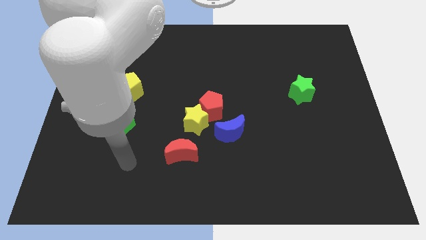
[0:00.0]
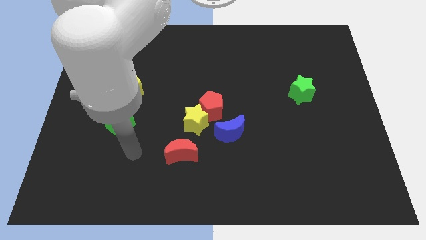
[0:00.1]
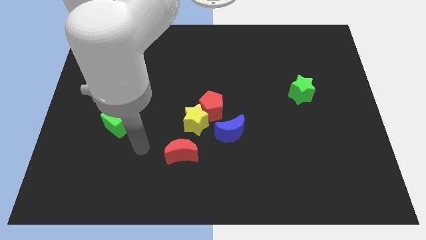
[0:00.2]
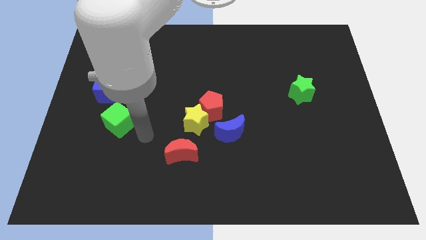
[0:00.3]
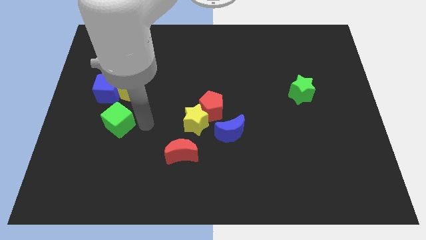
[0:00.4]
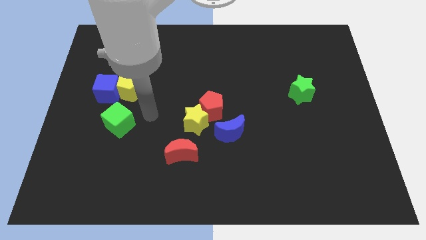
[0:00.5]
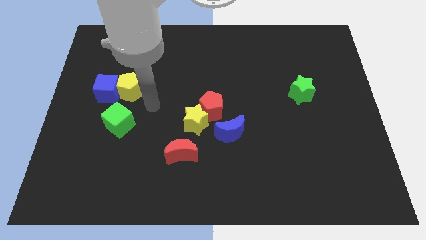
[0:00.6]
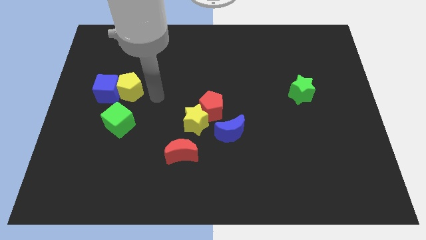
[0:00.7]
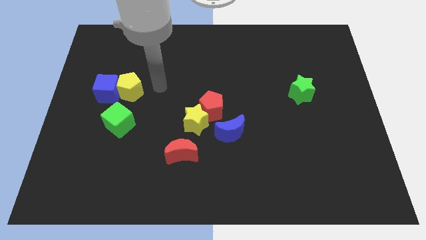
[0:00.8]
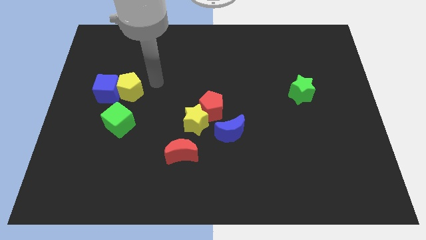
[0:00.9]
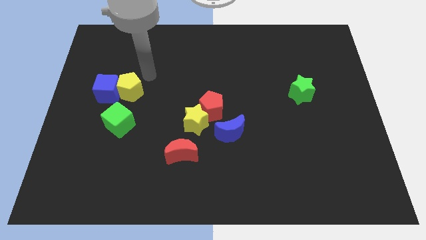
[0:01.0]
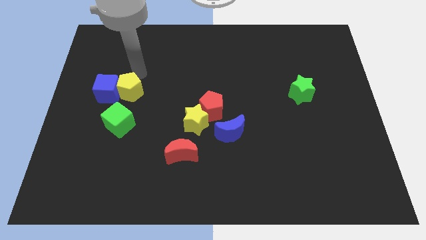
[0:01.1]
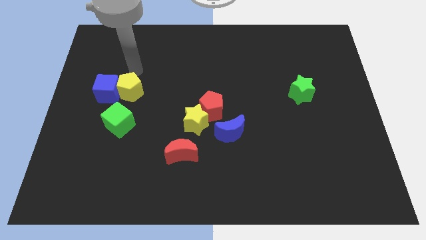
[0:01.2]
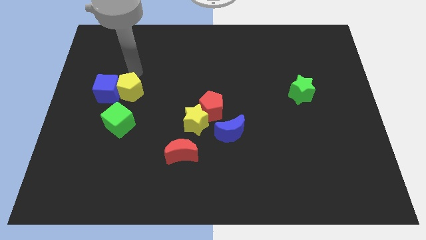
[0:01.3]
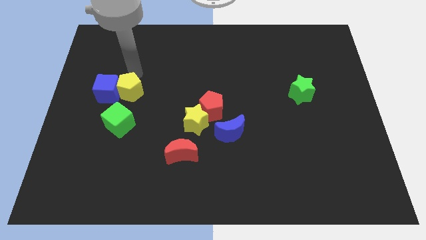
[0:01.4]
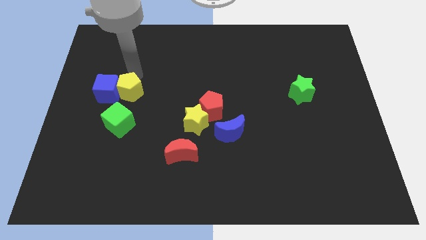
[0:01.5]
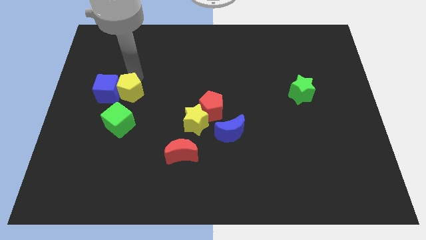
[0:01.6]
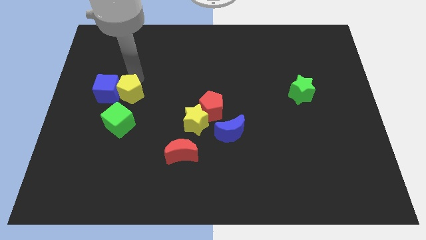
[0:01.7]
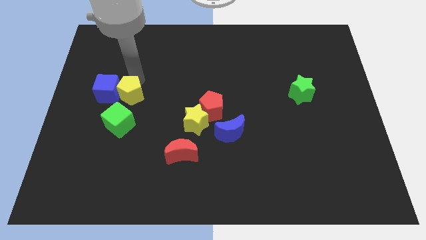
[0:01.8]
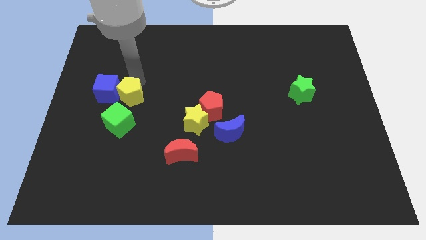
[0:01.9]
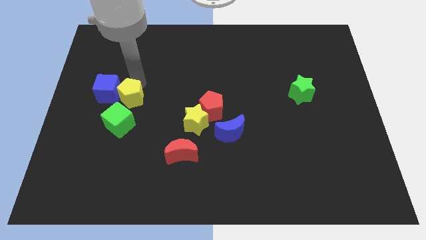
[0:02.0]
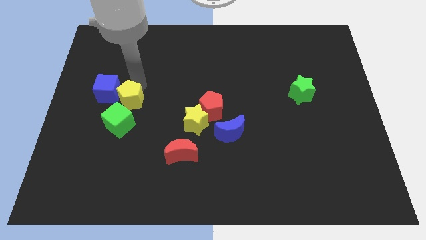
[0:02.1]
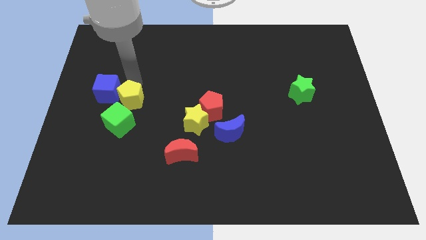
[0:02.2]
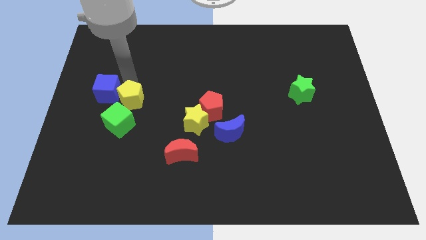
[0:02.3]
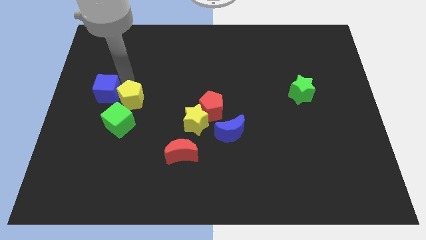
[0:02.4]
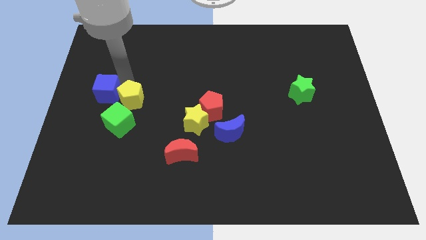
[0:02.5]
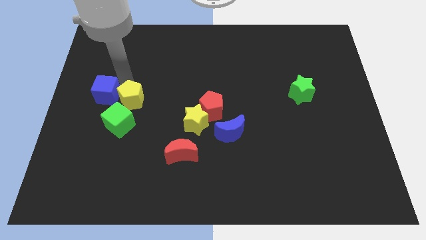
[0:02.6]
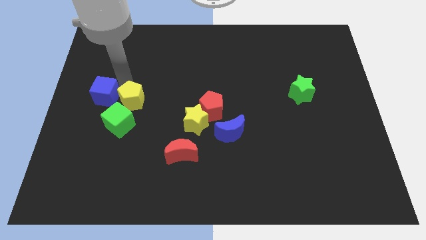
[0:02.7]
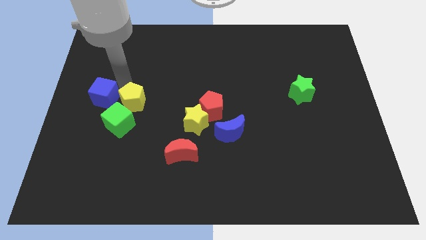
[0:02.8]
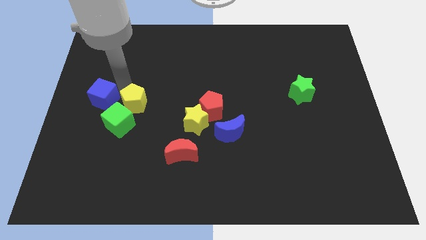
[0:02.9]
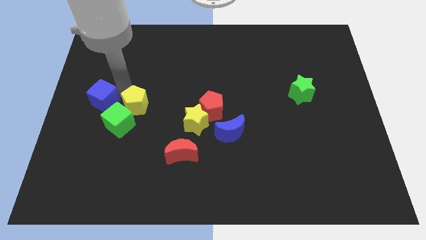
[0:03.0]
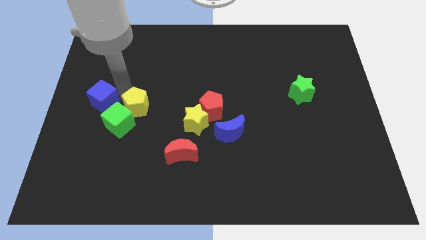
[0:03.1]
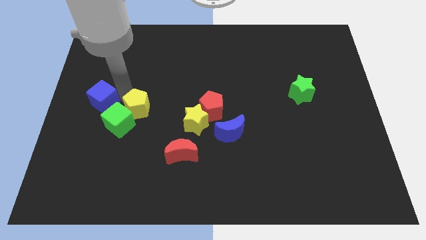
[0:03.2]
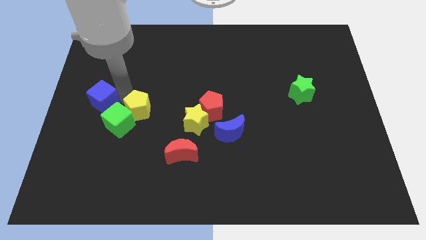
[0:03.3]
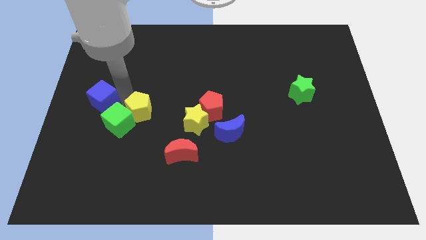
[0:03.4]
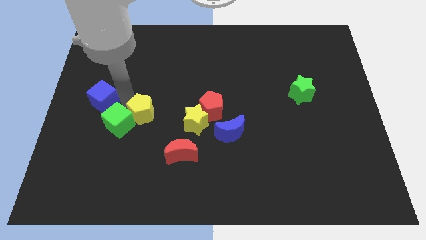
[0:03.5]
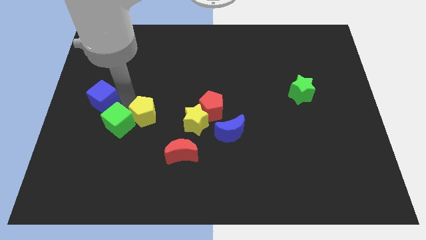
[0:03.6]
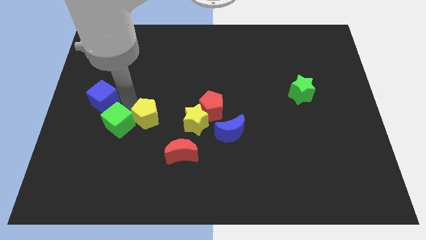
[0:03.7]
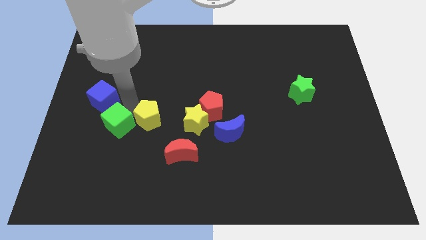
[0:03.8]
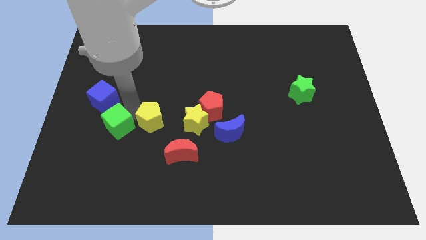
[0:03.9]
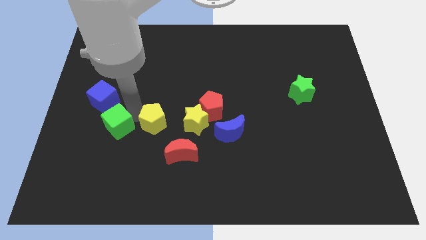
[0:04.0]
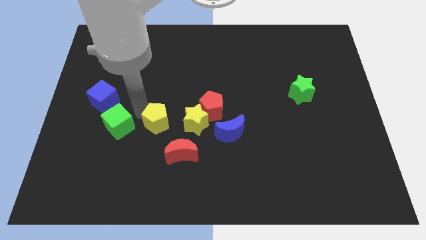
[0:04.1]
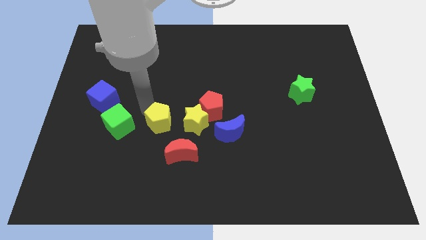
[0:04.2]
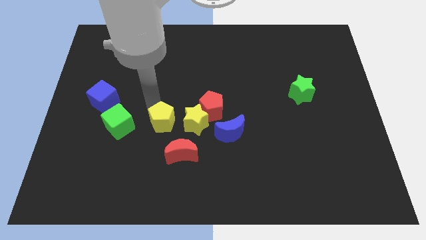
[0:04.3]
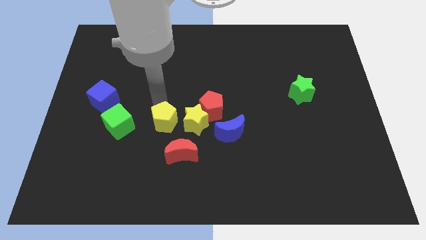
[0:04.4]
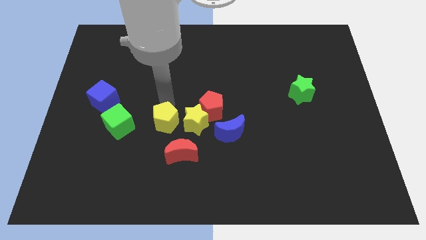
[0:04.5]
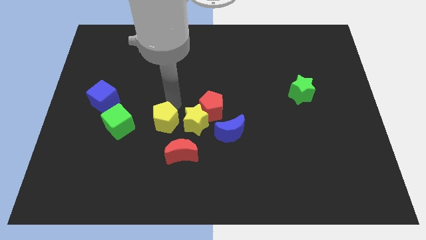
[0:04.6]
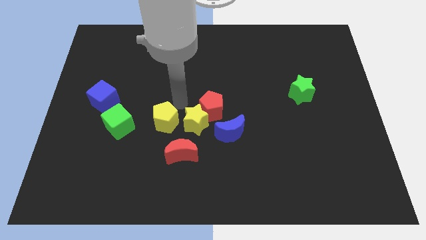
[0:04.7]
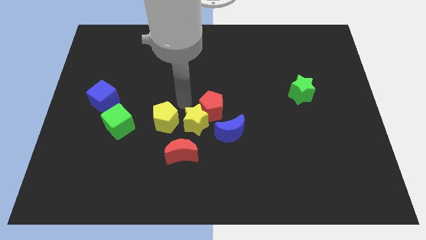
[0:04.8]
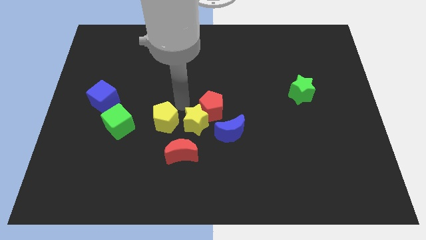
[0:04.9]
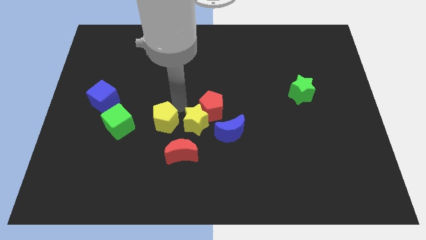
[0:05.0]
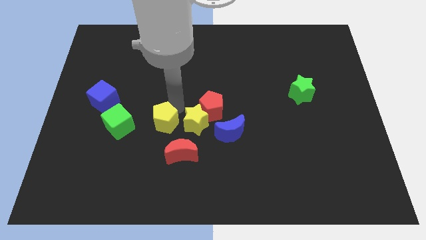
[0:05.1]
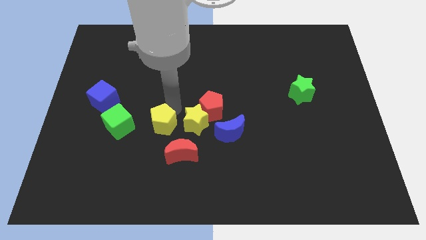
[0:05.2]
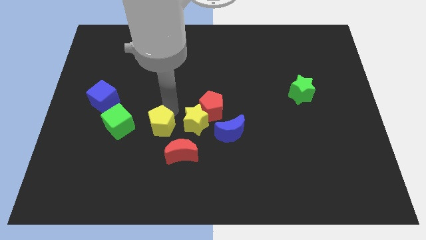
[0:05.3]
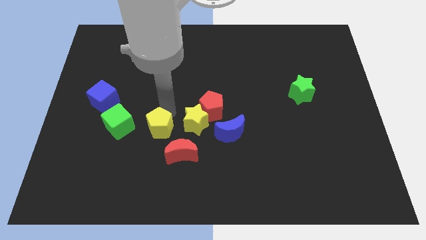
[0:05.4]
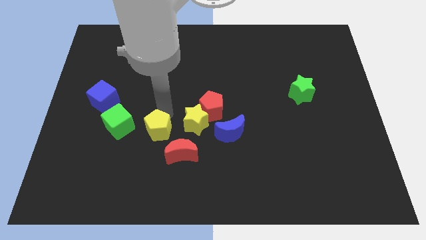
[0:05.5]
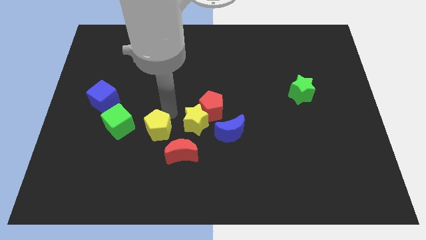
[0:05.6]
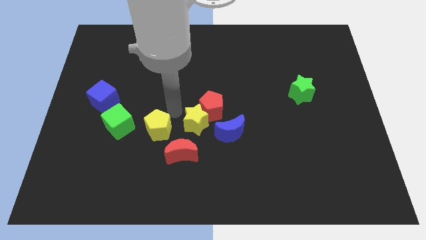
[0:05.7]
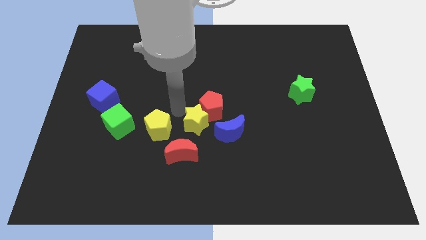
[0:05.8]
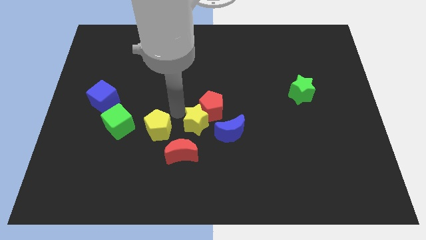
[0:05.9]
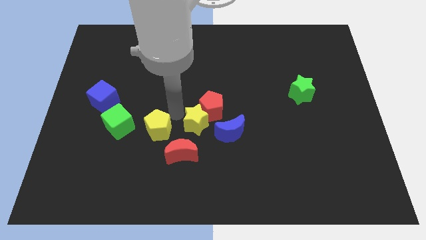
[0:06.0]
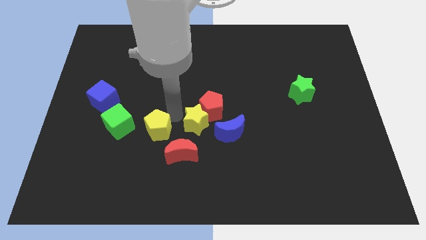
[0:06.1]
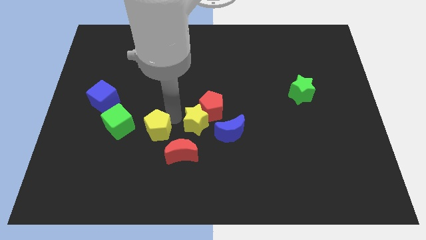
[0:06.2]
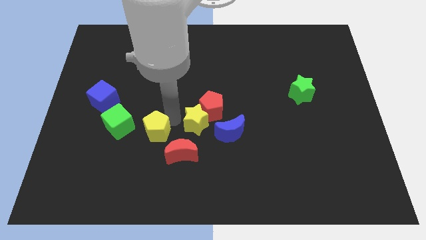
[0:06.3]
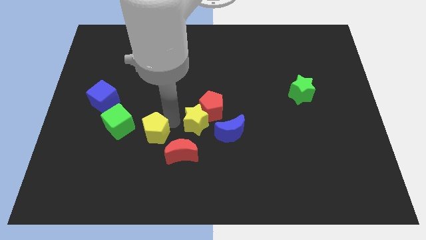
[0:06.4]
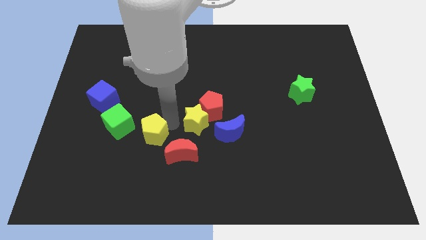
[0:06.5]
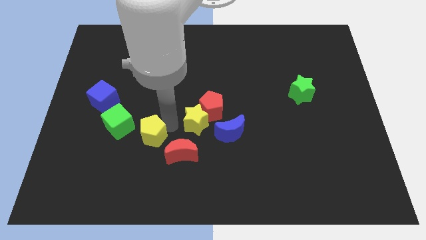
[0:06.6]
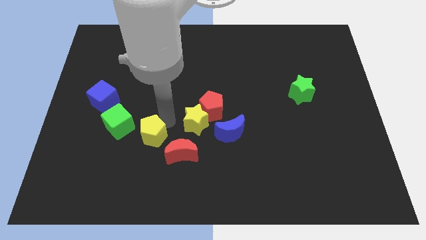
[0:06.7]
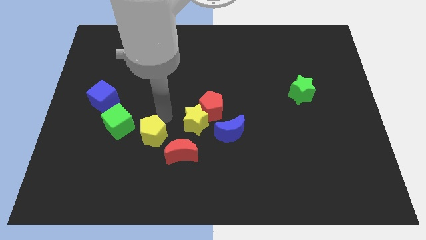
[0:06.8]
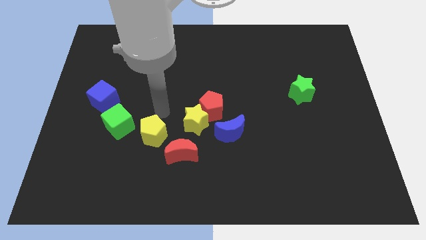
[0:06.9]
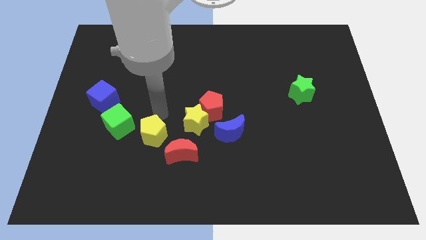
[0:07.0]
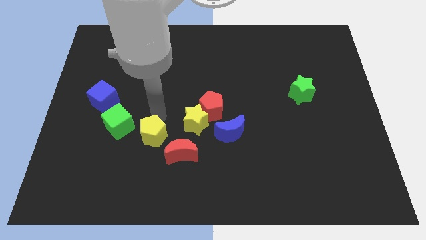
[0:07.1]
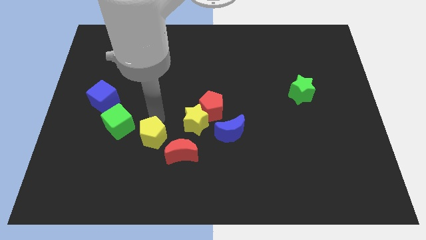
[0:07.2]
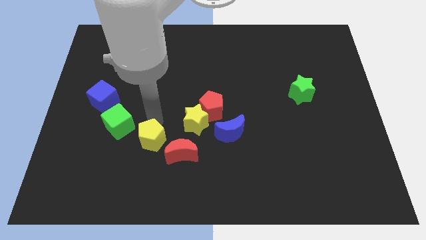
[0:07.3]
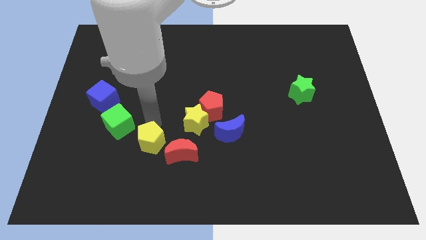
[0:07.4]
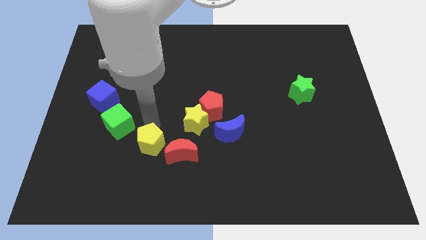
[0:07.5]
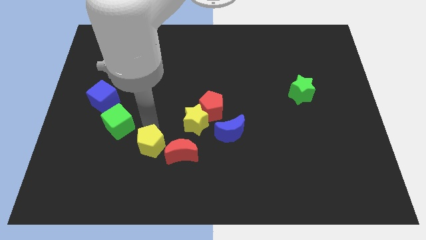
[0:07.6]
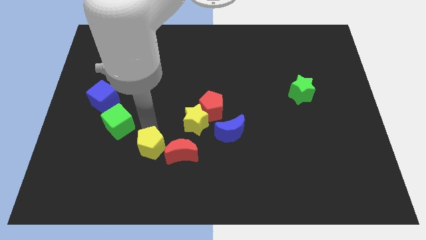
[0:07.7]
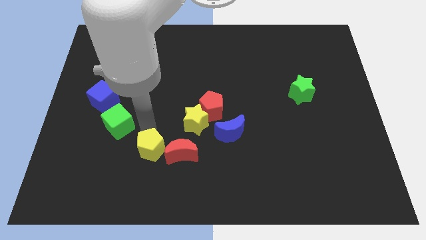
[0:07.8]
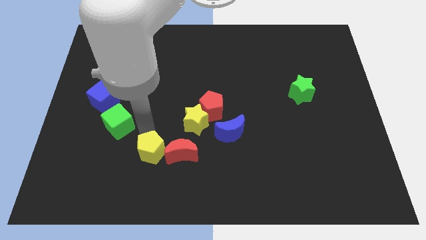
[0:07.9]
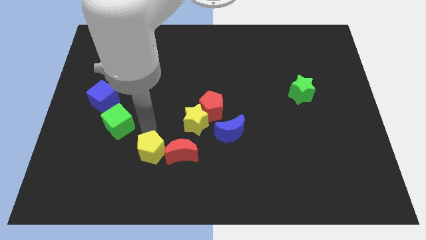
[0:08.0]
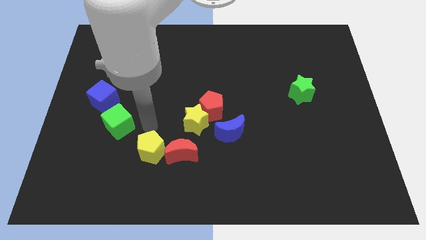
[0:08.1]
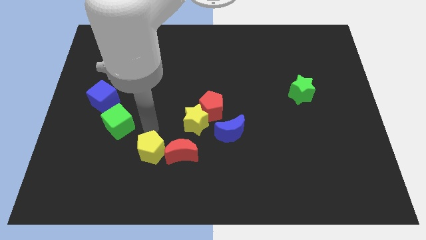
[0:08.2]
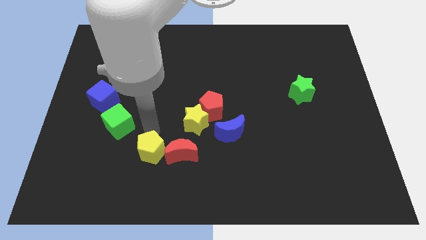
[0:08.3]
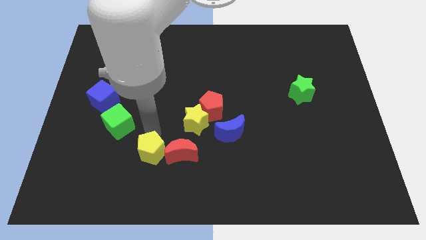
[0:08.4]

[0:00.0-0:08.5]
slide the yellow pentagon to the bottom left of the red moon
